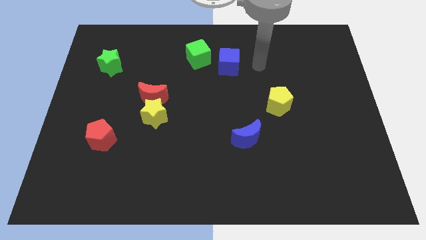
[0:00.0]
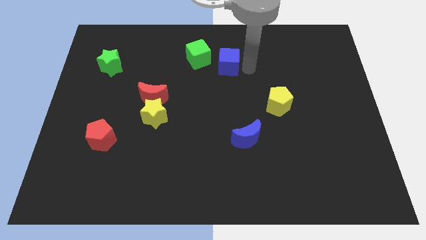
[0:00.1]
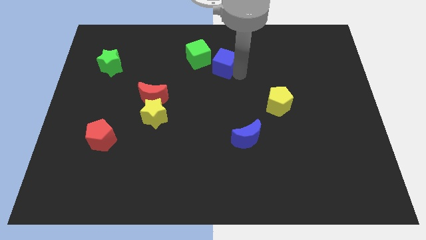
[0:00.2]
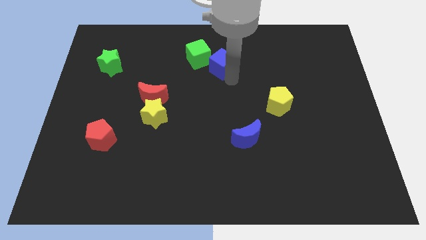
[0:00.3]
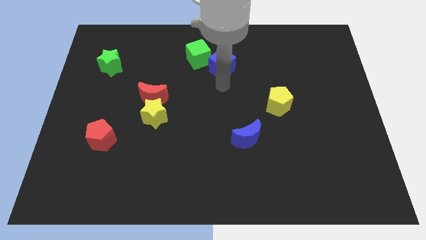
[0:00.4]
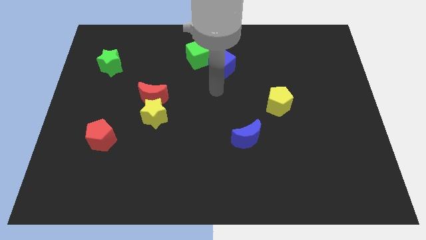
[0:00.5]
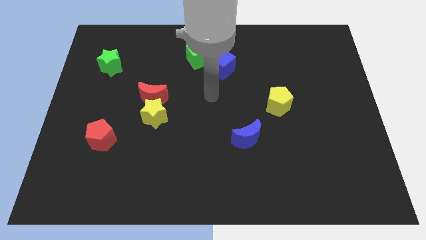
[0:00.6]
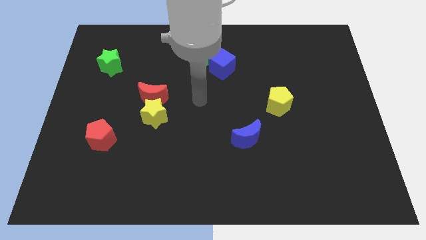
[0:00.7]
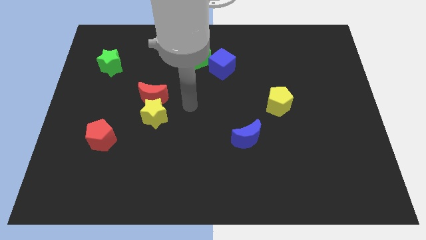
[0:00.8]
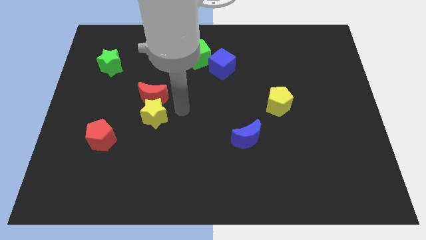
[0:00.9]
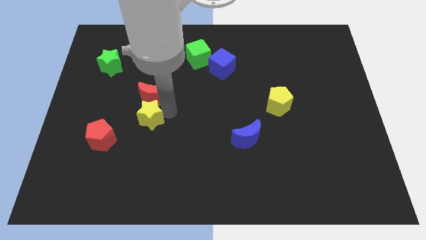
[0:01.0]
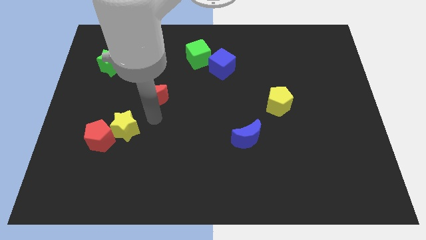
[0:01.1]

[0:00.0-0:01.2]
pull the red moon apart from the yellow star

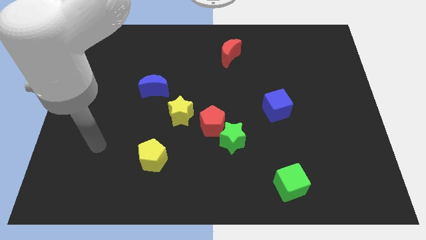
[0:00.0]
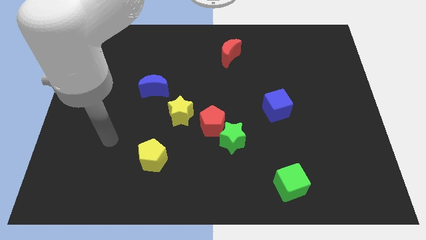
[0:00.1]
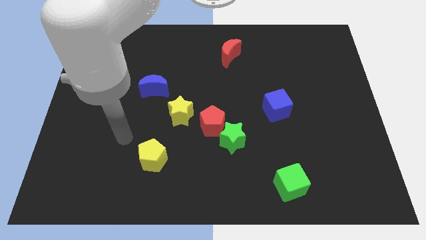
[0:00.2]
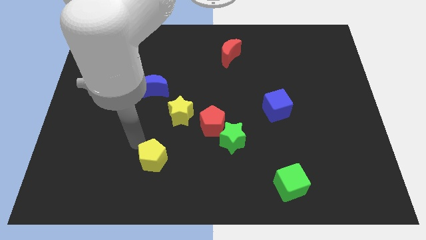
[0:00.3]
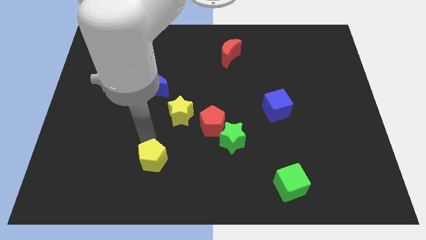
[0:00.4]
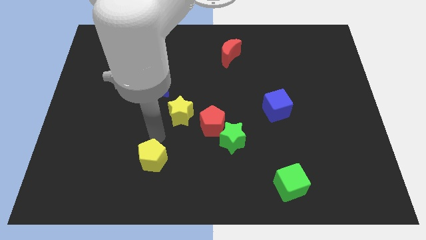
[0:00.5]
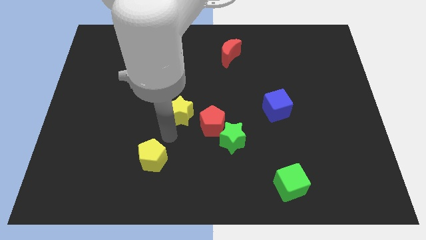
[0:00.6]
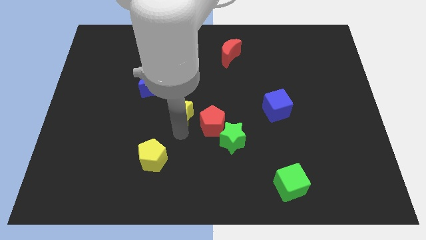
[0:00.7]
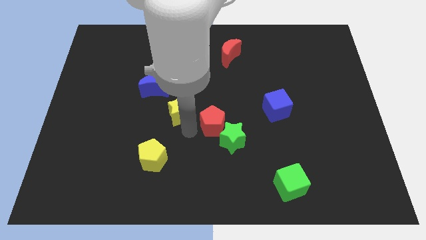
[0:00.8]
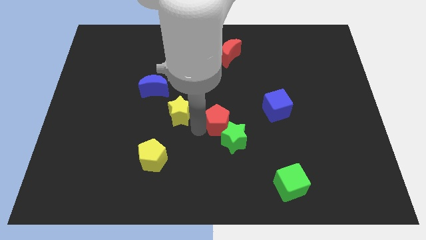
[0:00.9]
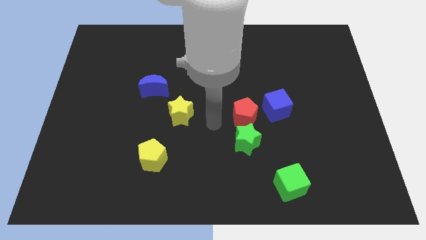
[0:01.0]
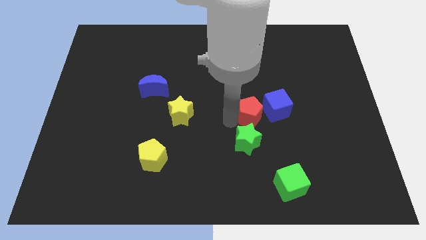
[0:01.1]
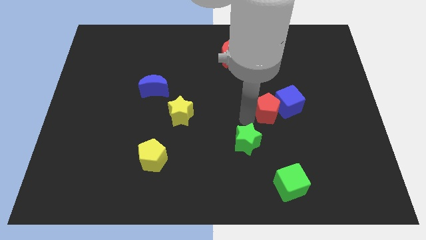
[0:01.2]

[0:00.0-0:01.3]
separate the green star from the red pentagon

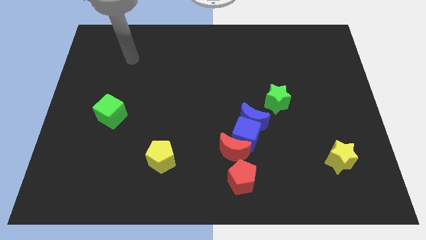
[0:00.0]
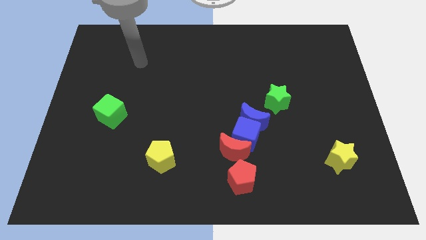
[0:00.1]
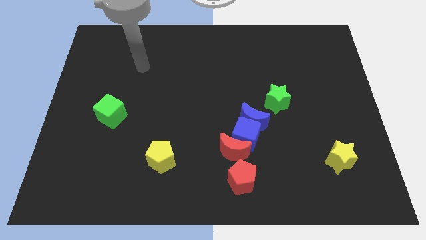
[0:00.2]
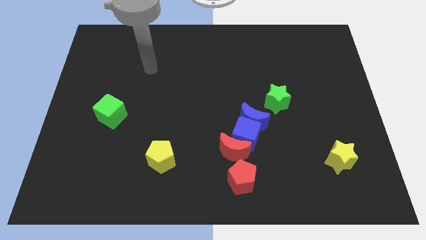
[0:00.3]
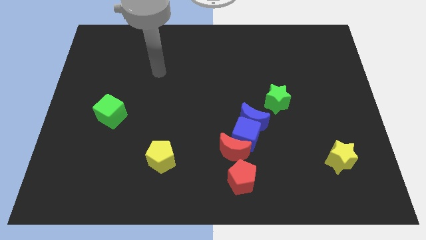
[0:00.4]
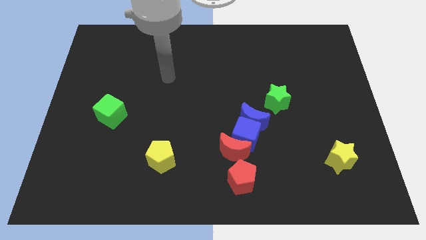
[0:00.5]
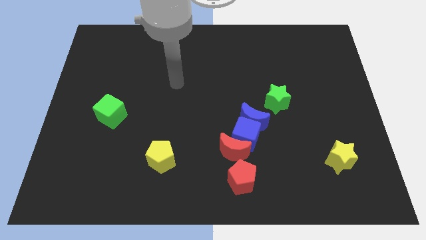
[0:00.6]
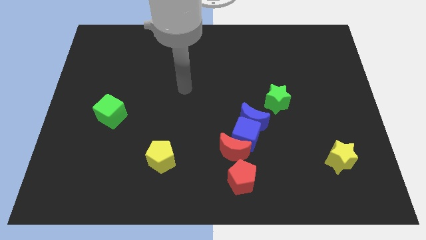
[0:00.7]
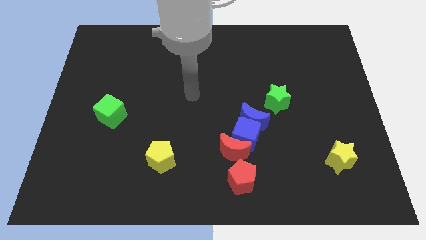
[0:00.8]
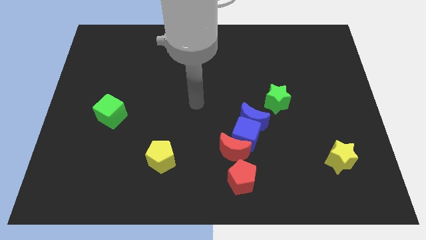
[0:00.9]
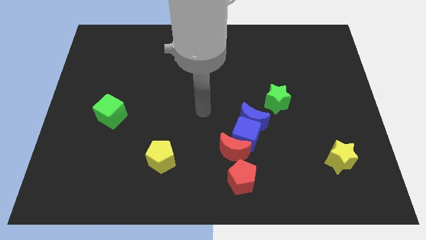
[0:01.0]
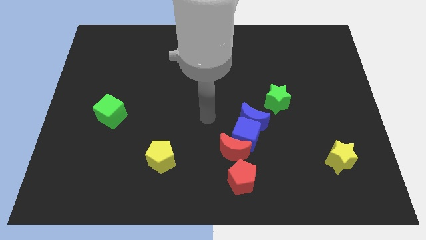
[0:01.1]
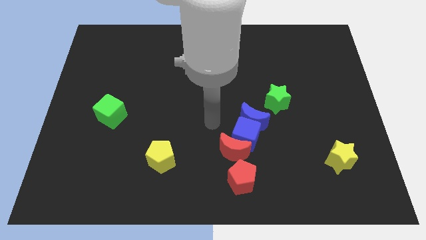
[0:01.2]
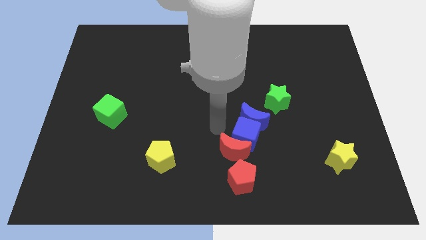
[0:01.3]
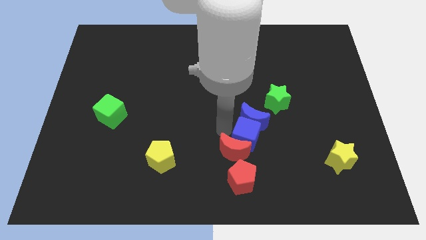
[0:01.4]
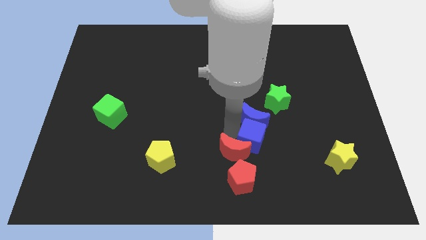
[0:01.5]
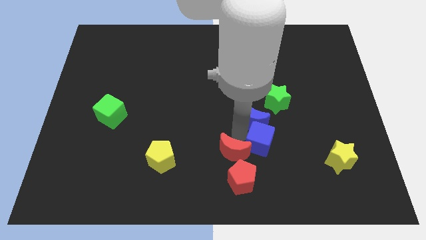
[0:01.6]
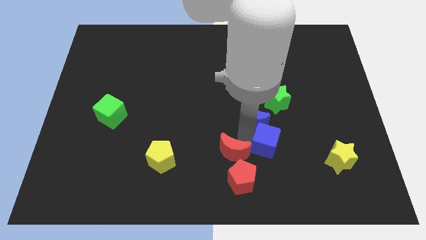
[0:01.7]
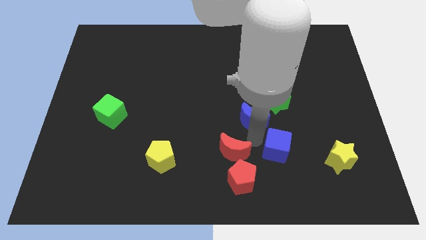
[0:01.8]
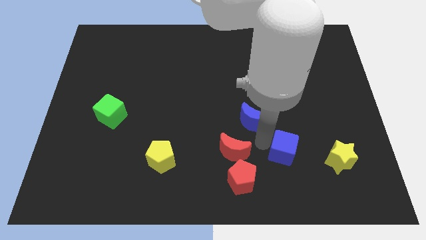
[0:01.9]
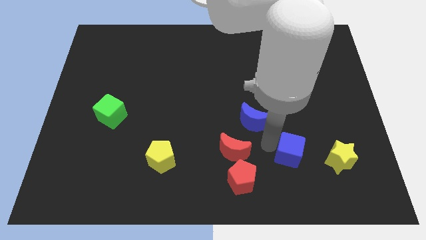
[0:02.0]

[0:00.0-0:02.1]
separate the blue cube from the blue moon and red moon

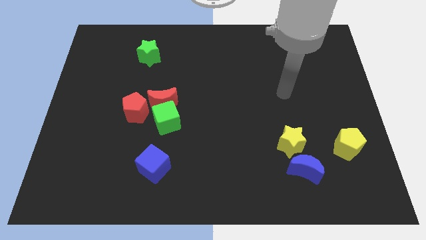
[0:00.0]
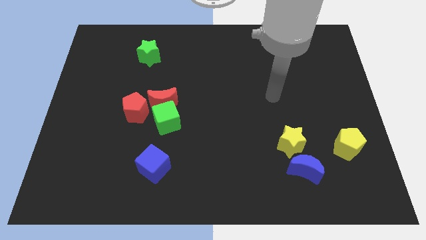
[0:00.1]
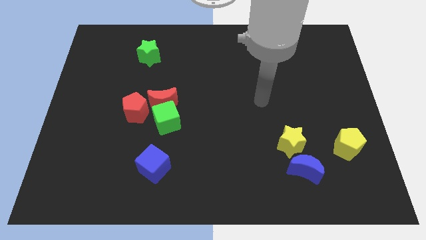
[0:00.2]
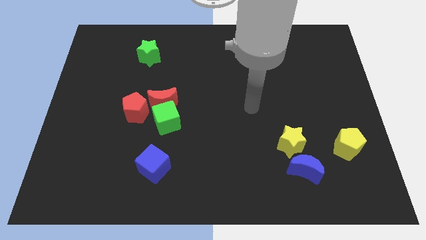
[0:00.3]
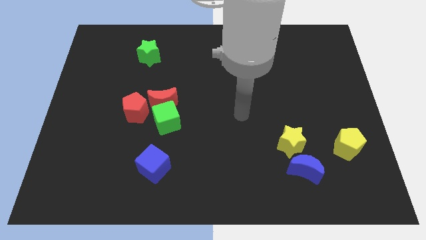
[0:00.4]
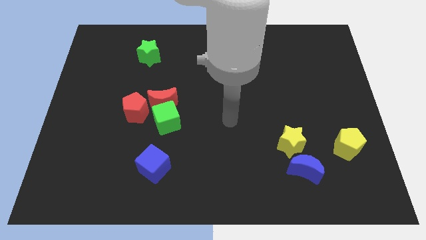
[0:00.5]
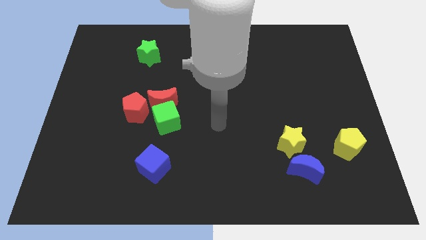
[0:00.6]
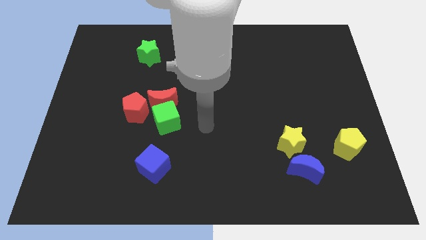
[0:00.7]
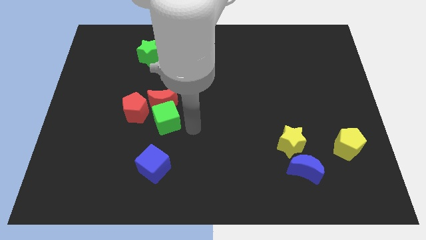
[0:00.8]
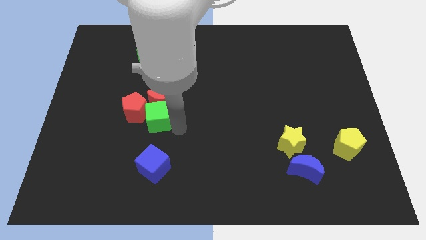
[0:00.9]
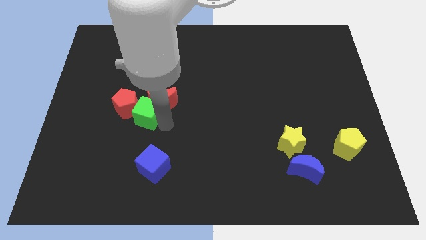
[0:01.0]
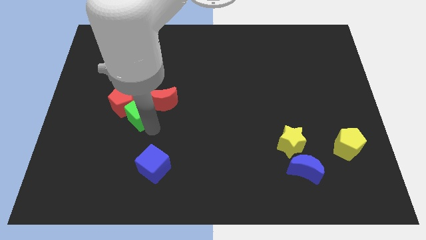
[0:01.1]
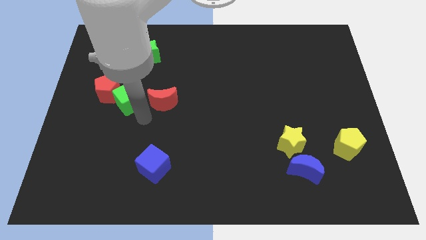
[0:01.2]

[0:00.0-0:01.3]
move the red moon away from the green cube and red pentagon

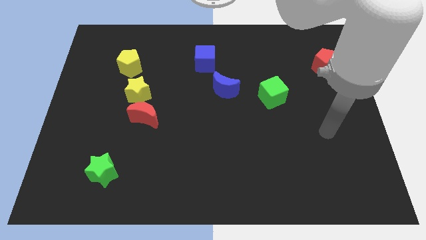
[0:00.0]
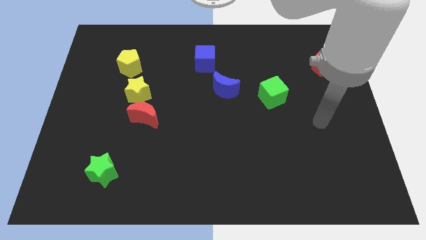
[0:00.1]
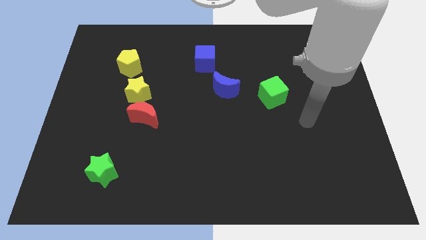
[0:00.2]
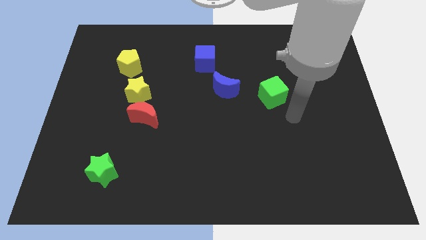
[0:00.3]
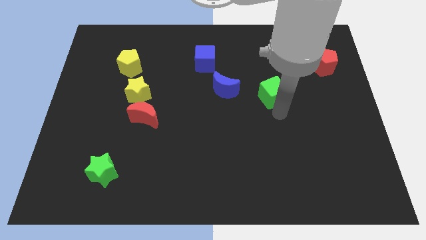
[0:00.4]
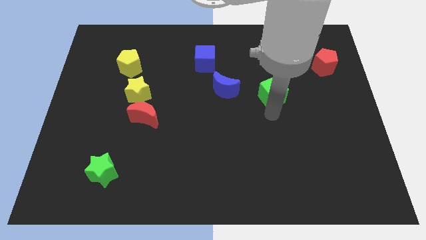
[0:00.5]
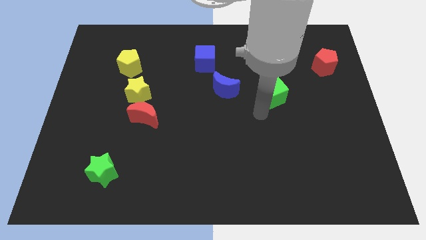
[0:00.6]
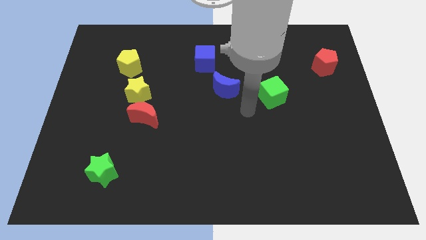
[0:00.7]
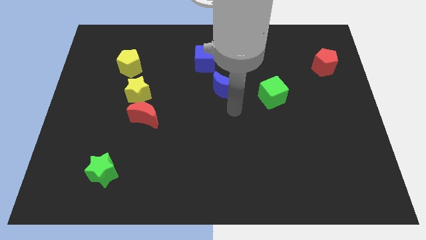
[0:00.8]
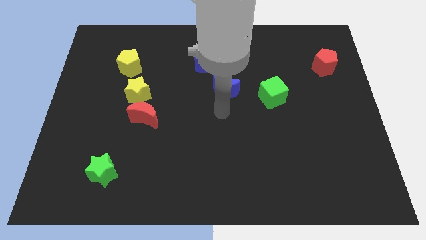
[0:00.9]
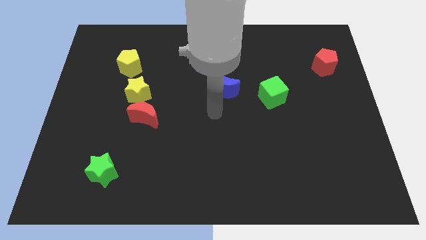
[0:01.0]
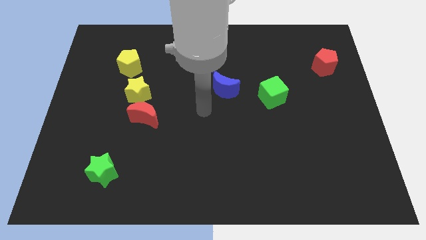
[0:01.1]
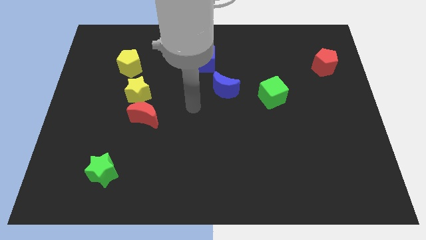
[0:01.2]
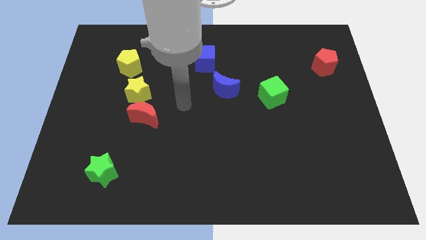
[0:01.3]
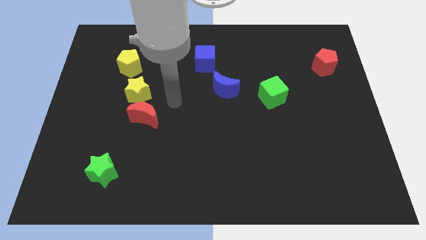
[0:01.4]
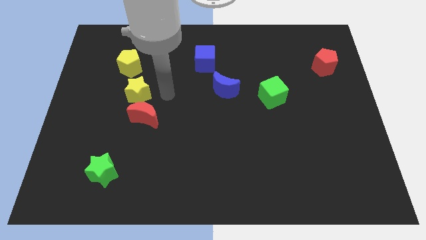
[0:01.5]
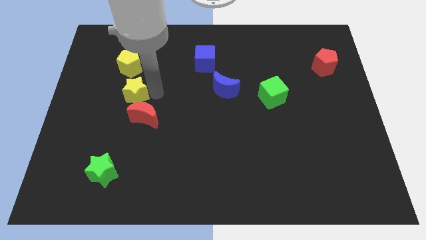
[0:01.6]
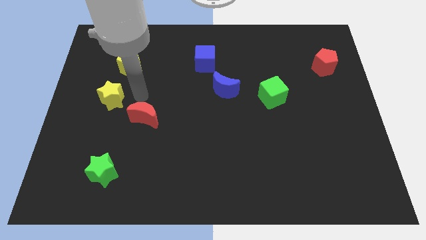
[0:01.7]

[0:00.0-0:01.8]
move the red moon away from the yellow star

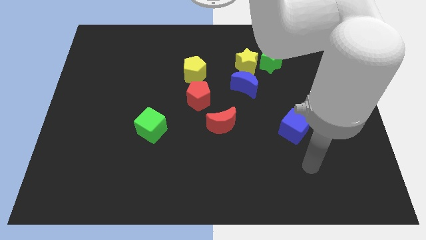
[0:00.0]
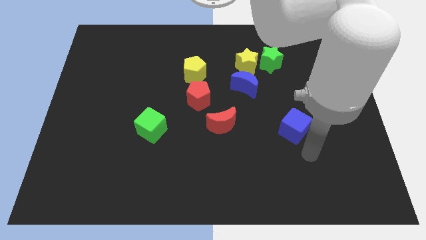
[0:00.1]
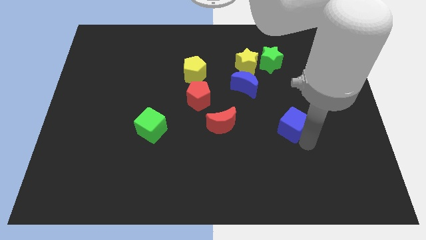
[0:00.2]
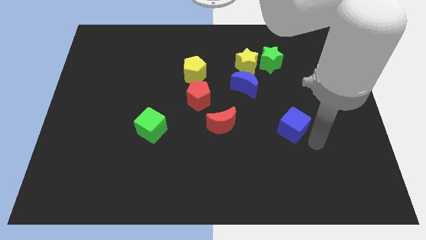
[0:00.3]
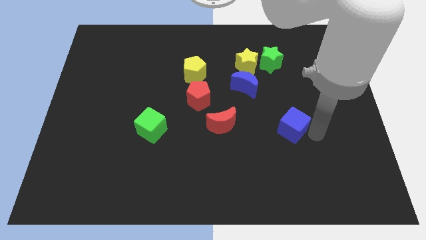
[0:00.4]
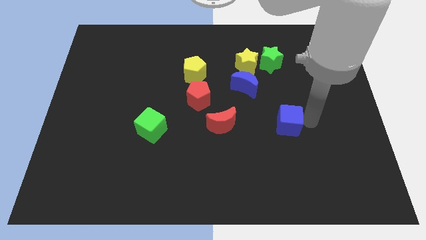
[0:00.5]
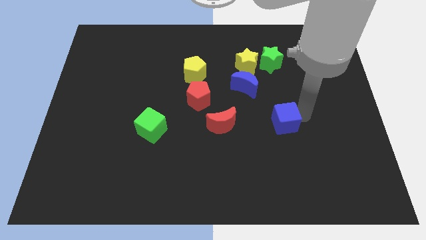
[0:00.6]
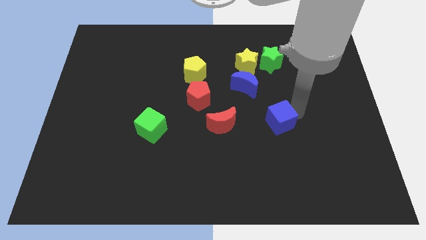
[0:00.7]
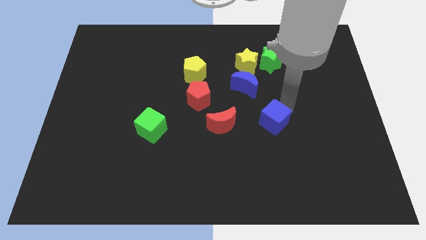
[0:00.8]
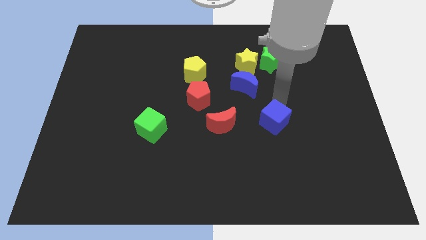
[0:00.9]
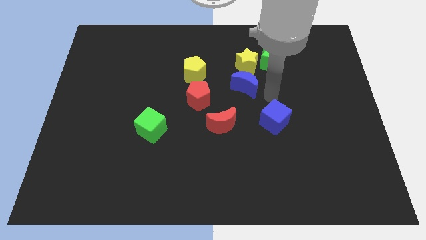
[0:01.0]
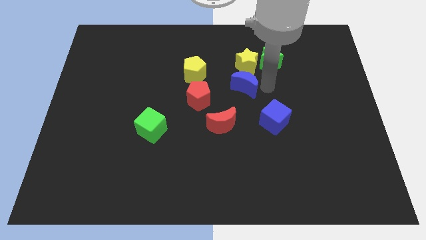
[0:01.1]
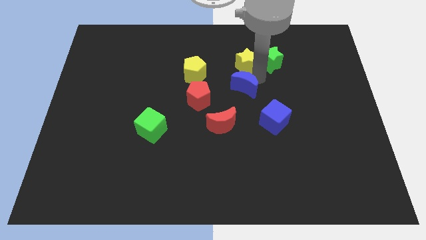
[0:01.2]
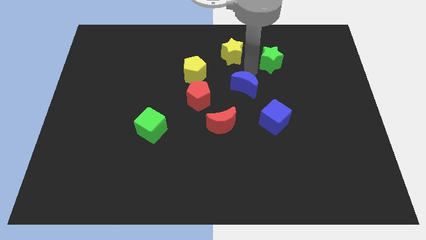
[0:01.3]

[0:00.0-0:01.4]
pull the green star apart from the yellow star

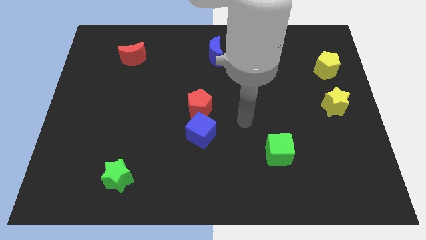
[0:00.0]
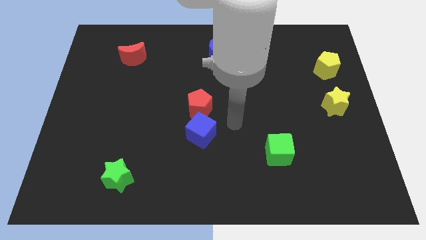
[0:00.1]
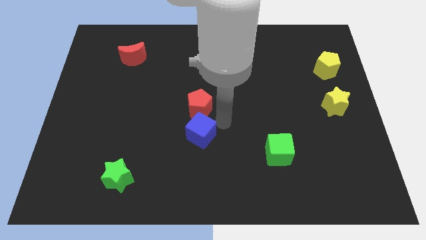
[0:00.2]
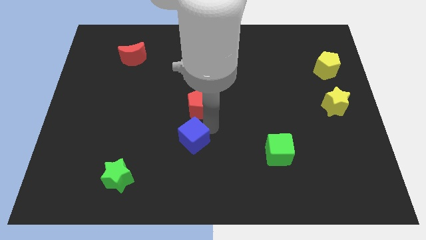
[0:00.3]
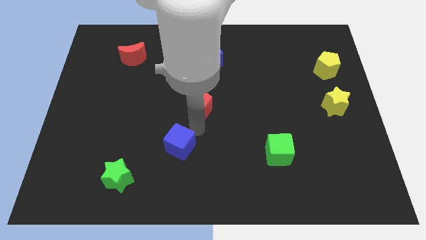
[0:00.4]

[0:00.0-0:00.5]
move the red pentagon away from the blue cube
